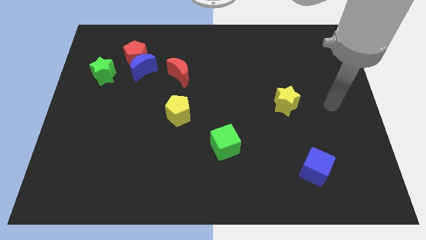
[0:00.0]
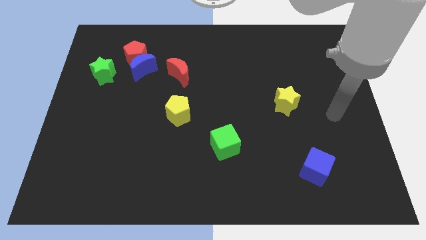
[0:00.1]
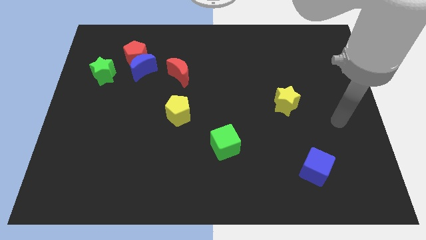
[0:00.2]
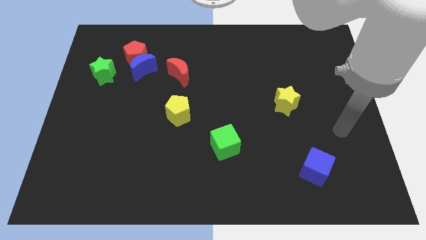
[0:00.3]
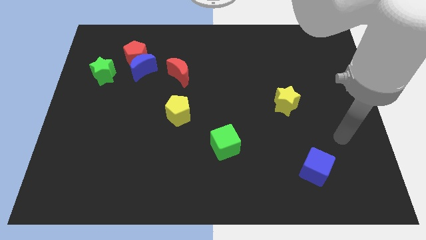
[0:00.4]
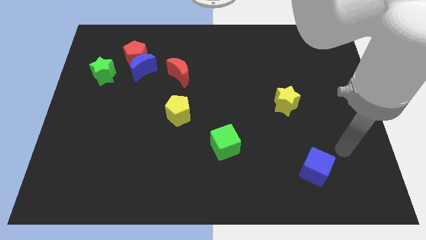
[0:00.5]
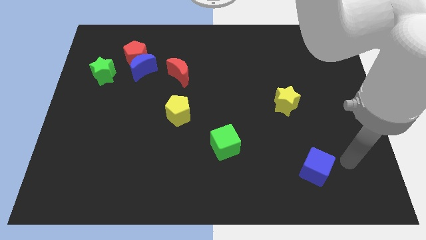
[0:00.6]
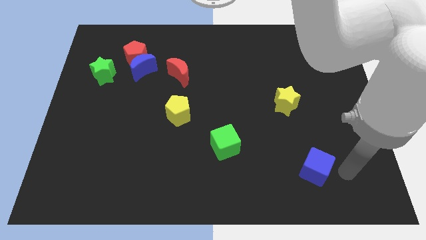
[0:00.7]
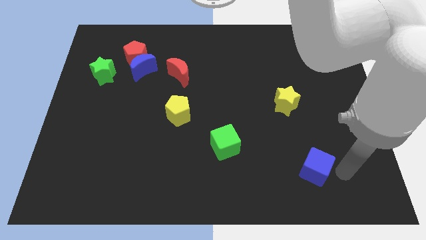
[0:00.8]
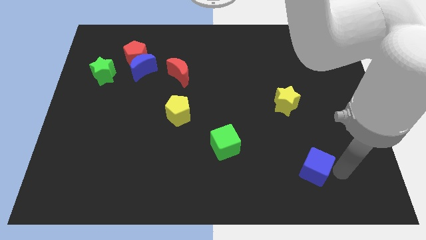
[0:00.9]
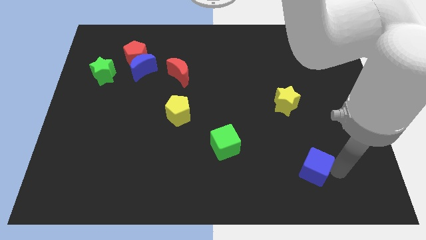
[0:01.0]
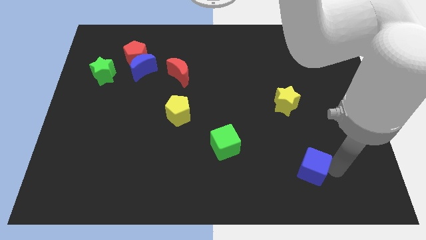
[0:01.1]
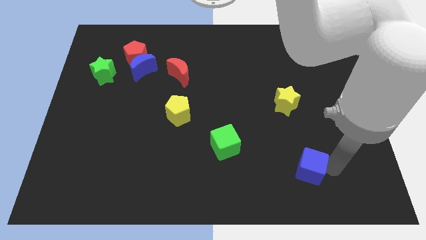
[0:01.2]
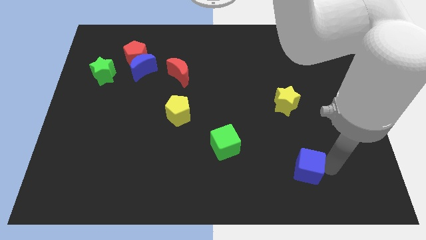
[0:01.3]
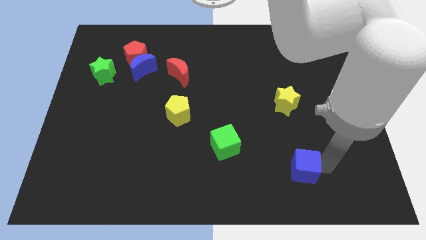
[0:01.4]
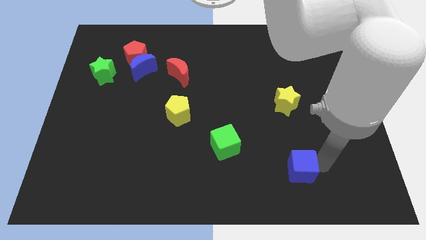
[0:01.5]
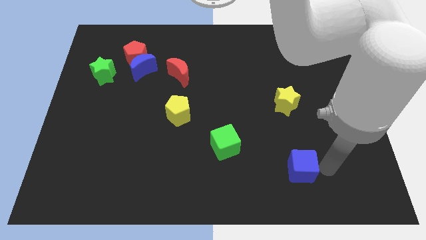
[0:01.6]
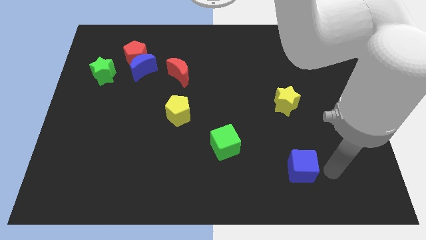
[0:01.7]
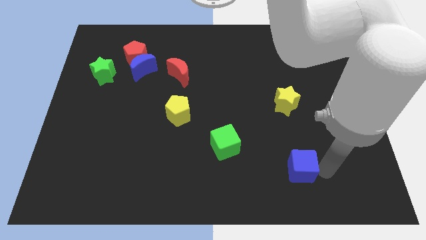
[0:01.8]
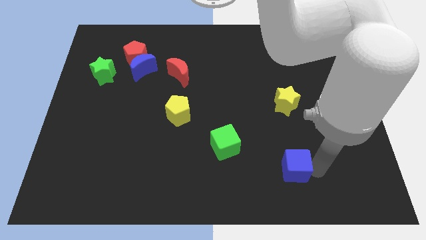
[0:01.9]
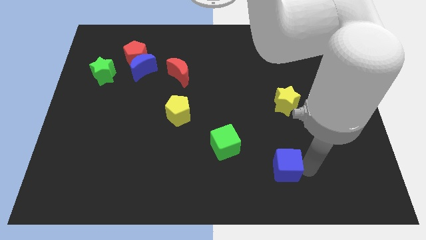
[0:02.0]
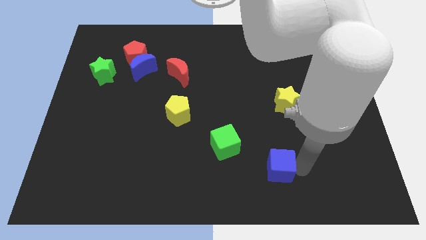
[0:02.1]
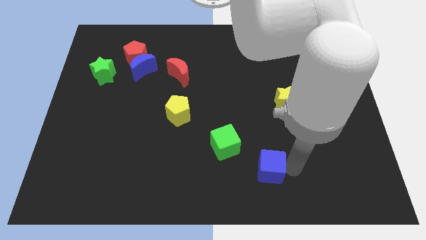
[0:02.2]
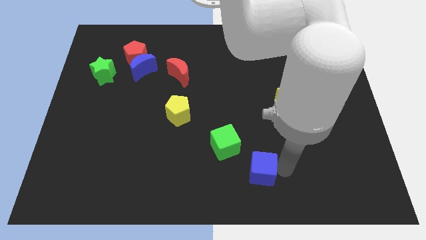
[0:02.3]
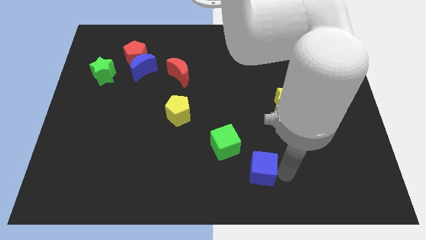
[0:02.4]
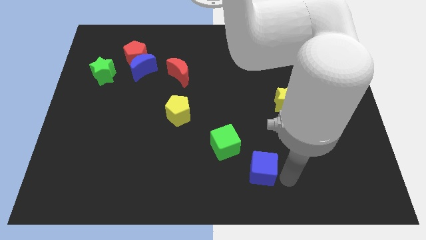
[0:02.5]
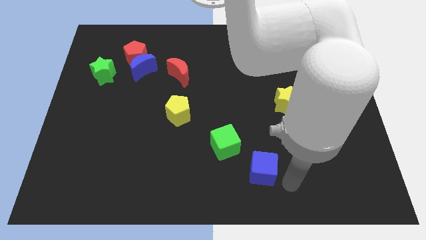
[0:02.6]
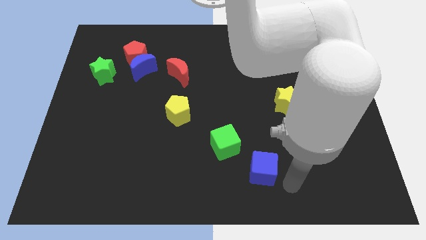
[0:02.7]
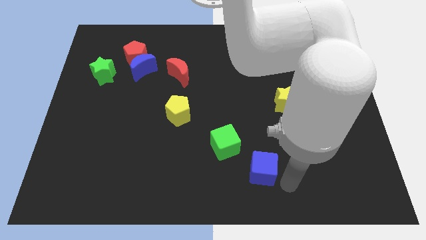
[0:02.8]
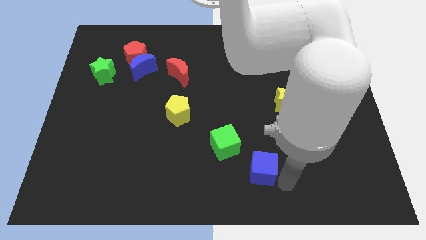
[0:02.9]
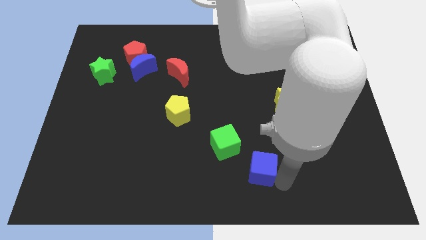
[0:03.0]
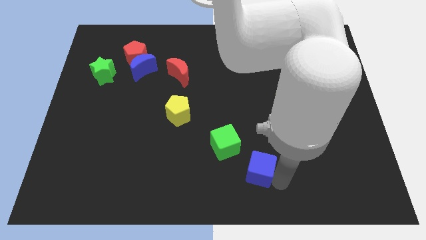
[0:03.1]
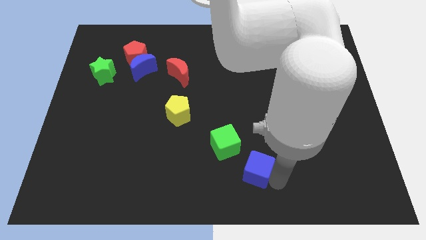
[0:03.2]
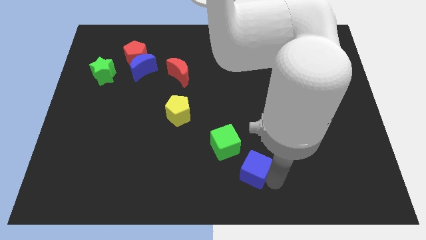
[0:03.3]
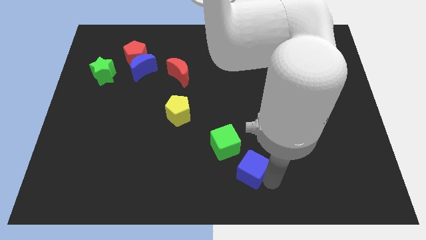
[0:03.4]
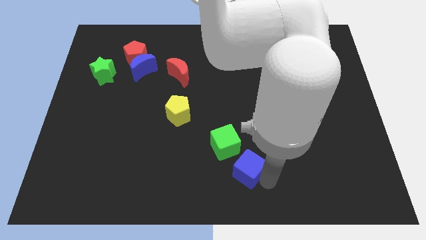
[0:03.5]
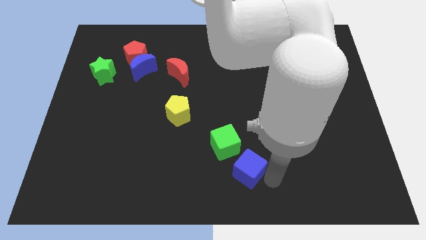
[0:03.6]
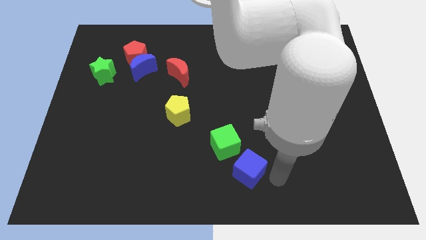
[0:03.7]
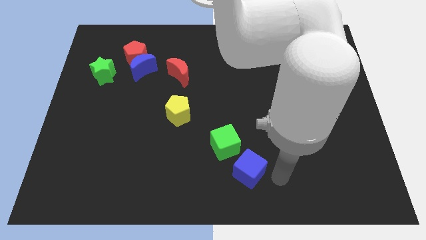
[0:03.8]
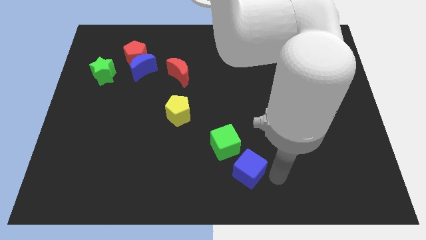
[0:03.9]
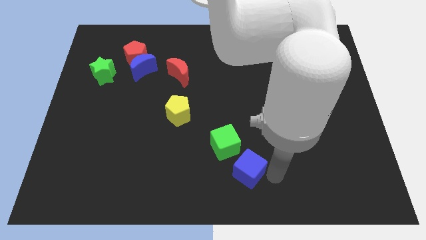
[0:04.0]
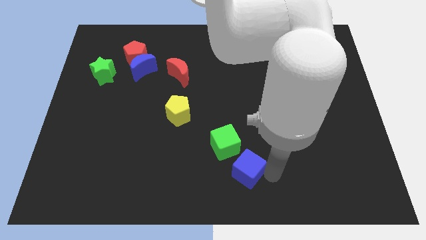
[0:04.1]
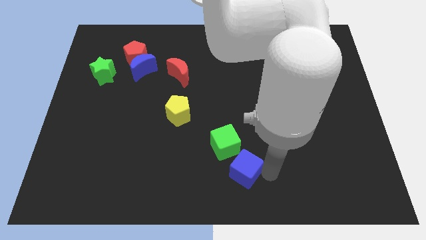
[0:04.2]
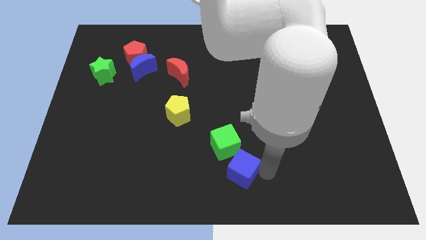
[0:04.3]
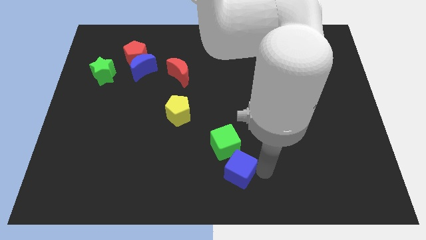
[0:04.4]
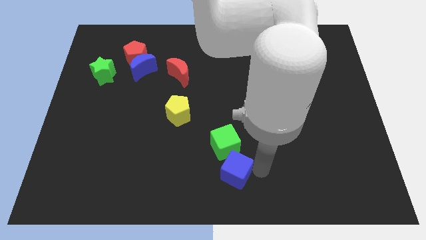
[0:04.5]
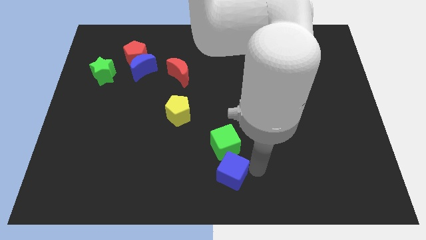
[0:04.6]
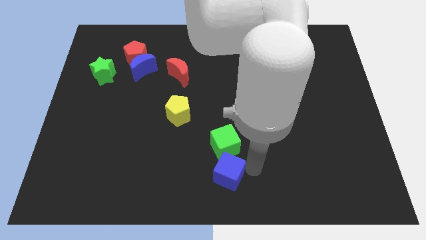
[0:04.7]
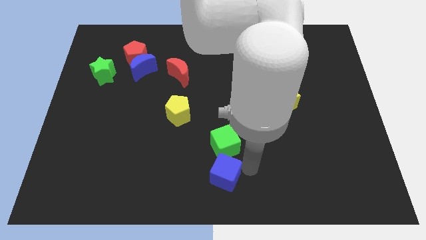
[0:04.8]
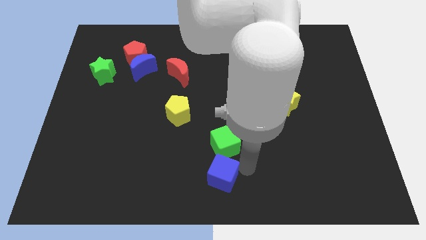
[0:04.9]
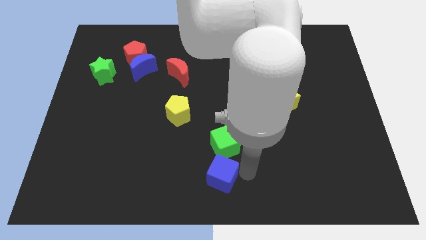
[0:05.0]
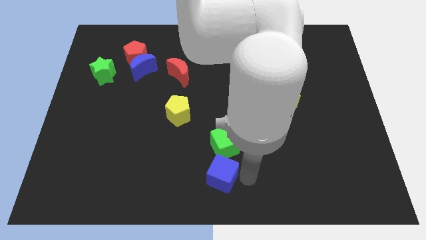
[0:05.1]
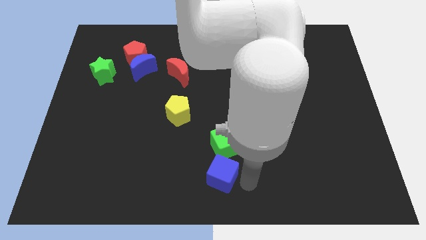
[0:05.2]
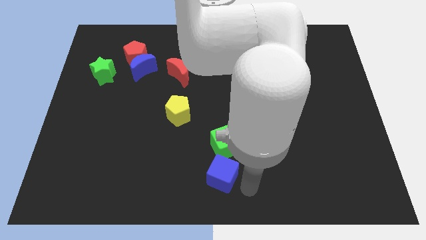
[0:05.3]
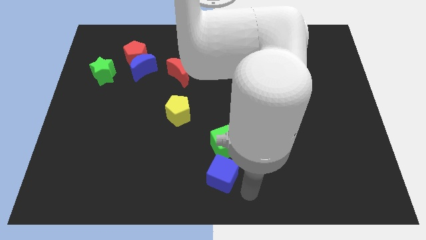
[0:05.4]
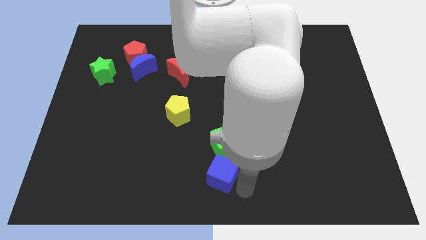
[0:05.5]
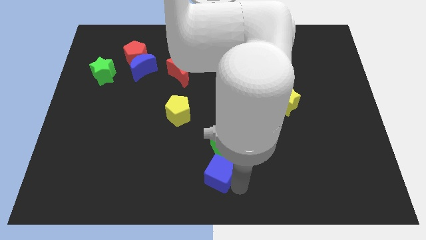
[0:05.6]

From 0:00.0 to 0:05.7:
move the blue cube to the left

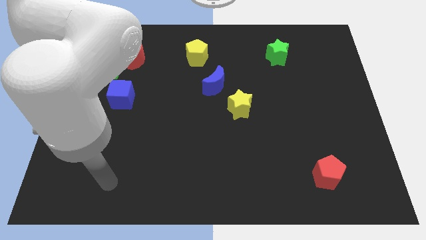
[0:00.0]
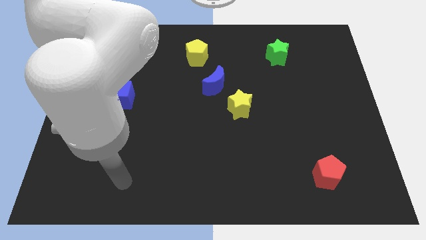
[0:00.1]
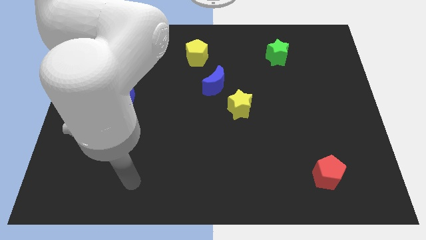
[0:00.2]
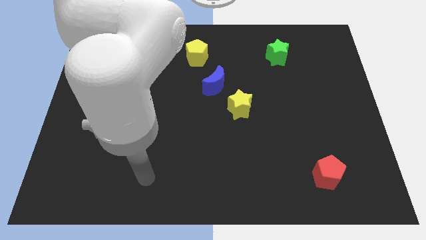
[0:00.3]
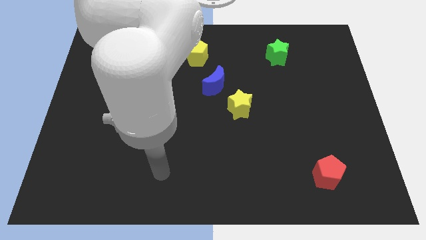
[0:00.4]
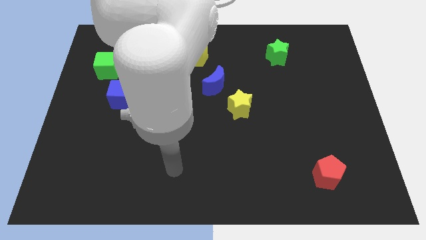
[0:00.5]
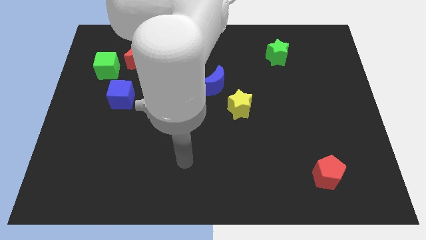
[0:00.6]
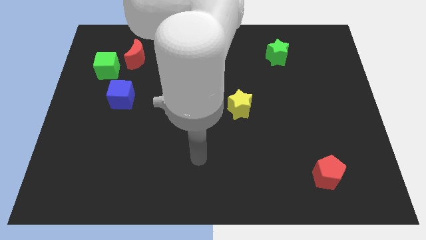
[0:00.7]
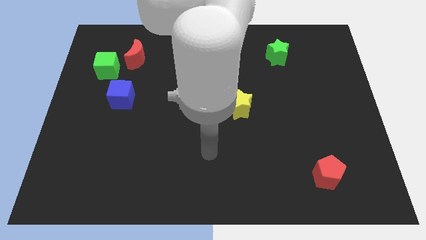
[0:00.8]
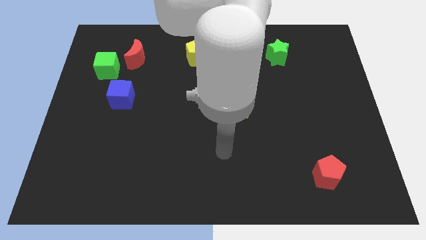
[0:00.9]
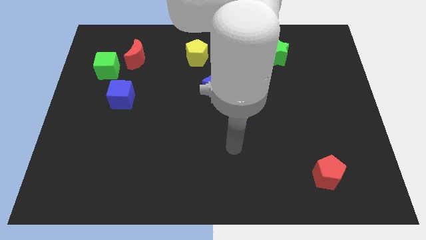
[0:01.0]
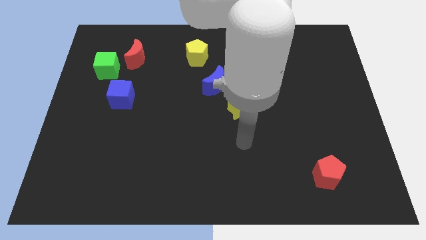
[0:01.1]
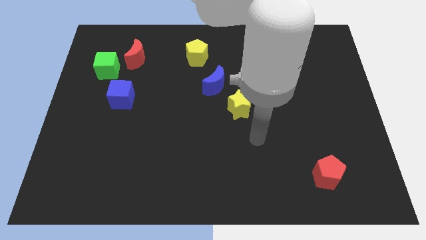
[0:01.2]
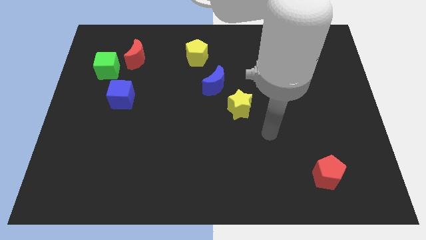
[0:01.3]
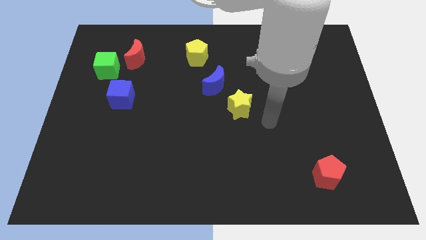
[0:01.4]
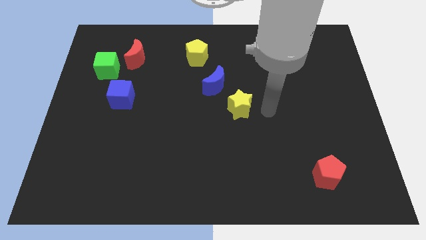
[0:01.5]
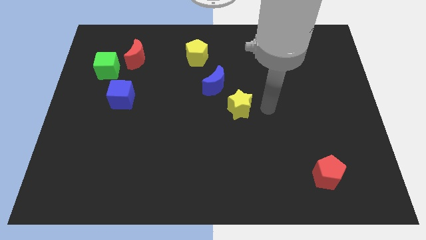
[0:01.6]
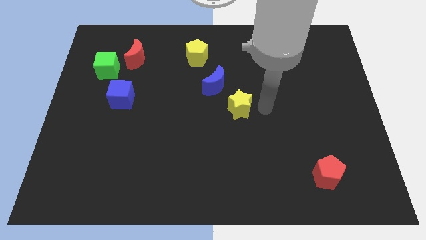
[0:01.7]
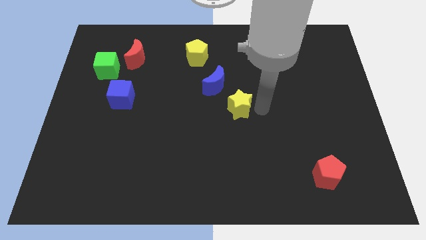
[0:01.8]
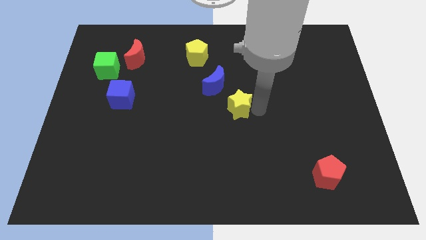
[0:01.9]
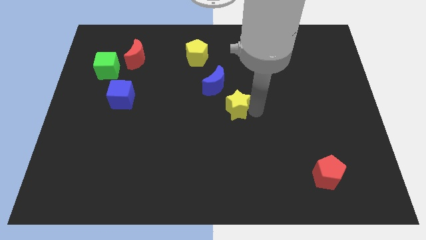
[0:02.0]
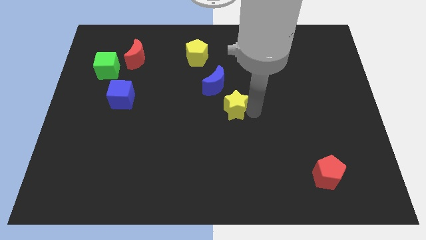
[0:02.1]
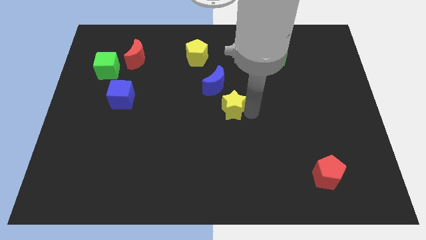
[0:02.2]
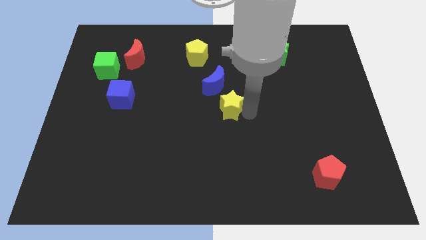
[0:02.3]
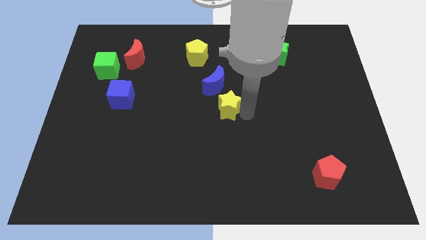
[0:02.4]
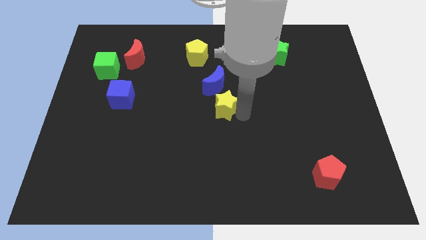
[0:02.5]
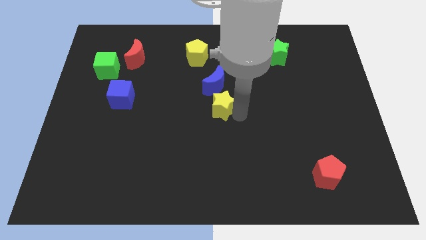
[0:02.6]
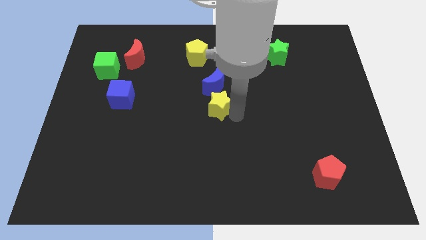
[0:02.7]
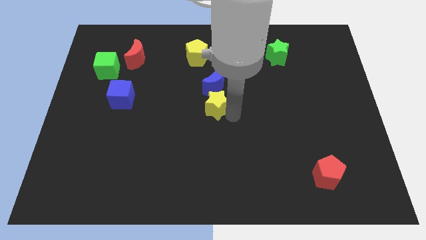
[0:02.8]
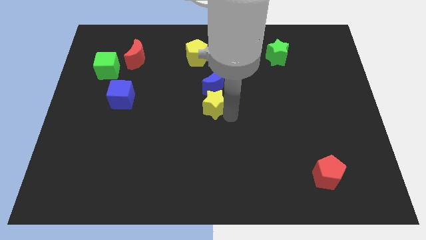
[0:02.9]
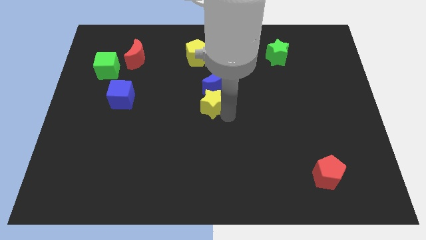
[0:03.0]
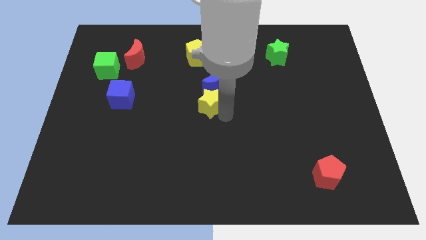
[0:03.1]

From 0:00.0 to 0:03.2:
slightly move the yellow star left
